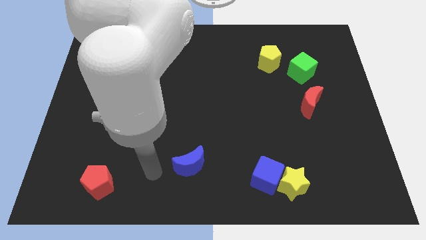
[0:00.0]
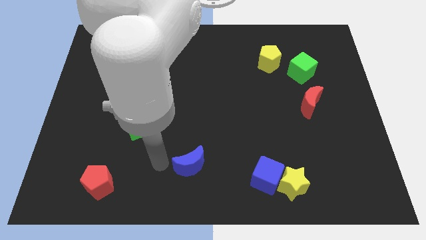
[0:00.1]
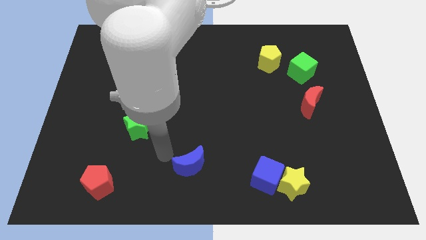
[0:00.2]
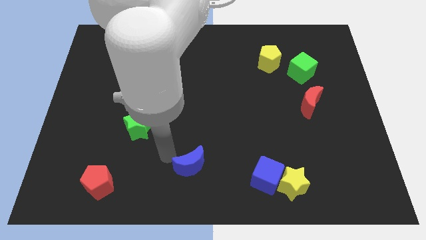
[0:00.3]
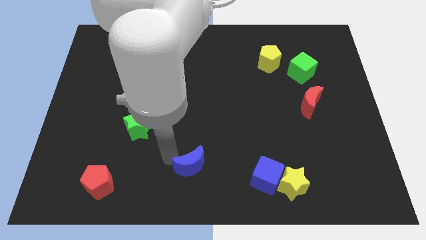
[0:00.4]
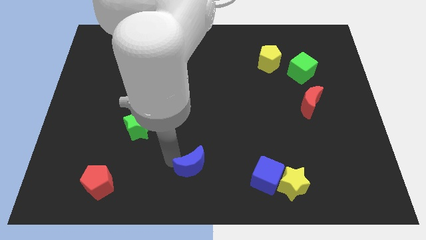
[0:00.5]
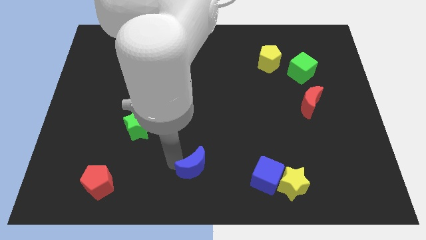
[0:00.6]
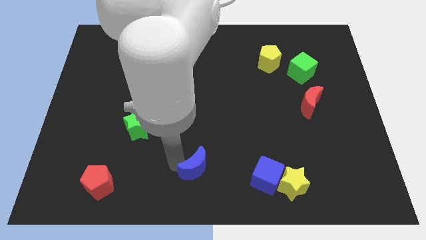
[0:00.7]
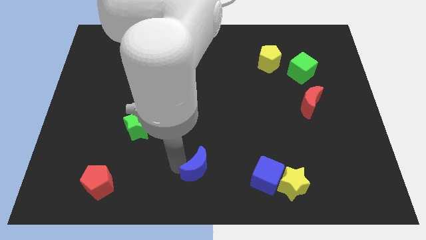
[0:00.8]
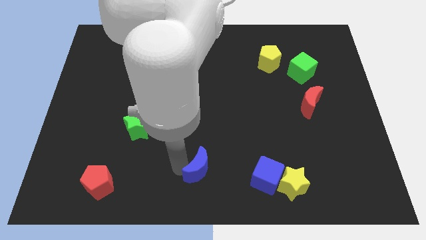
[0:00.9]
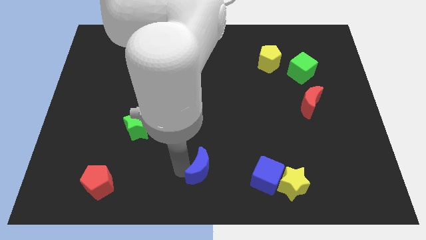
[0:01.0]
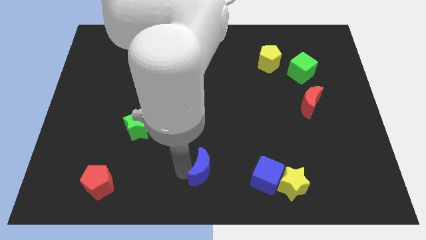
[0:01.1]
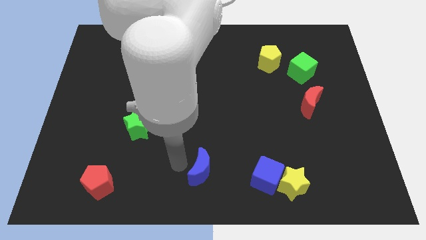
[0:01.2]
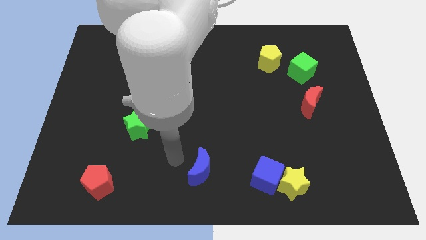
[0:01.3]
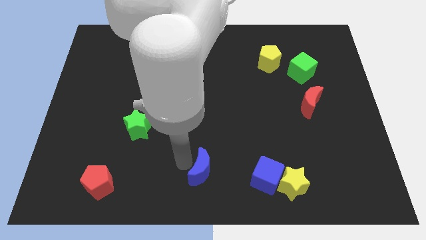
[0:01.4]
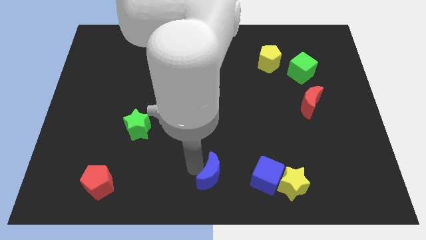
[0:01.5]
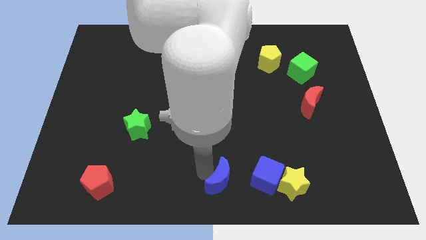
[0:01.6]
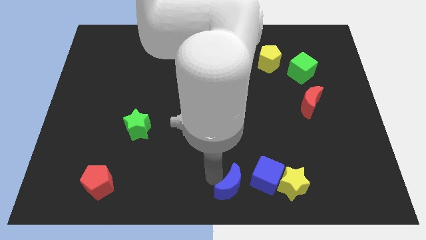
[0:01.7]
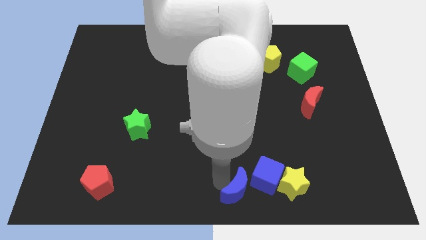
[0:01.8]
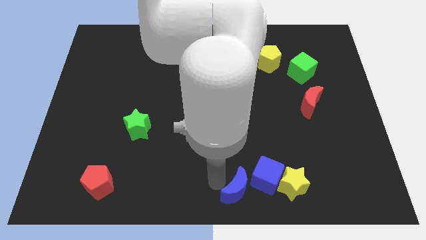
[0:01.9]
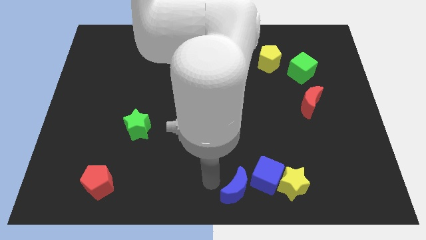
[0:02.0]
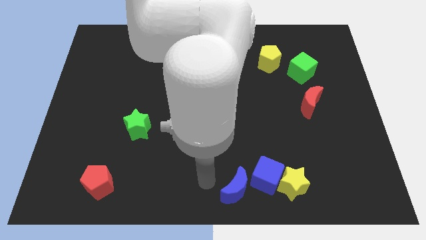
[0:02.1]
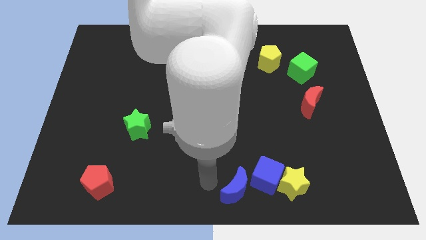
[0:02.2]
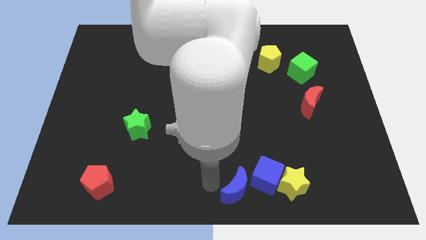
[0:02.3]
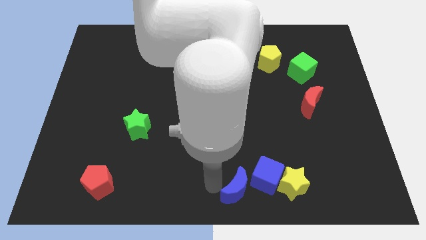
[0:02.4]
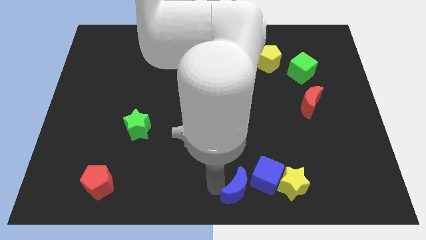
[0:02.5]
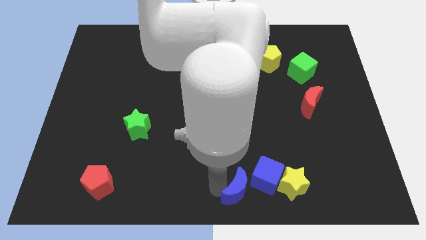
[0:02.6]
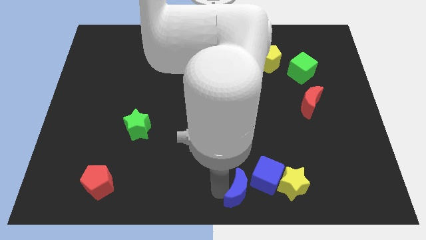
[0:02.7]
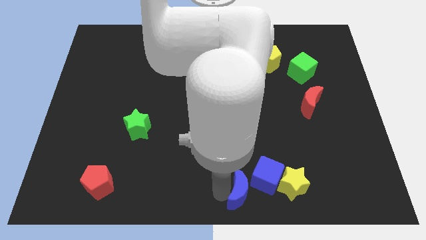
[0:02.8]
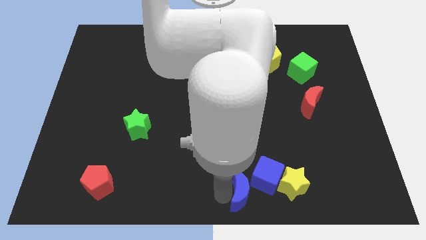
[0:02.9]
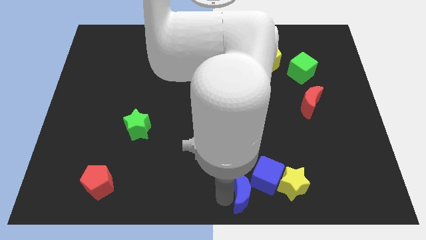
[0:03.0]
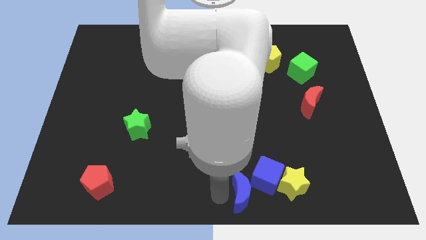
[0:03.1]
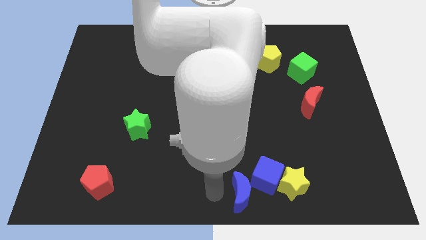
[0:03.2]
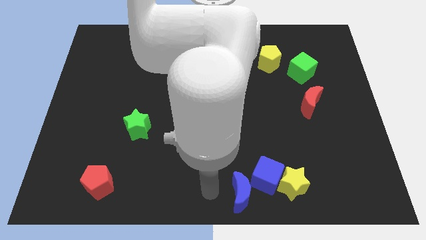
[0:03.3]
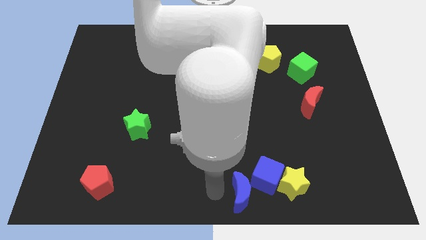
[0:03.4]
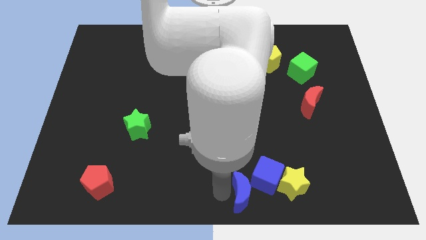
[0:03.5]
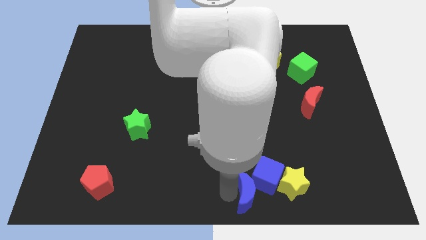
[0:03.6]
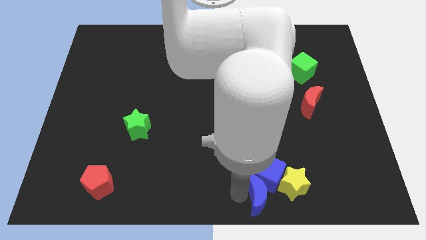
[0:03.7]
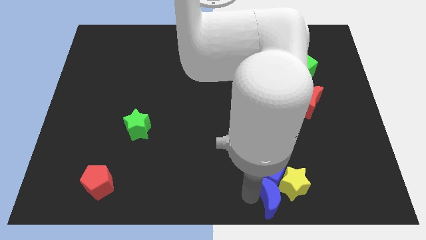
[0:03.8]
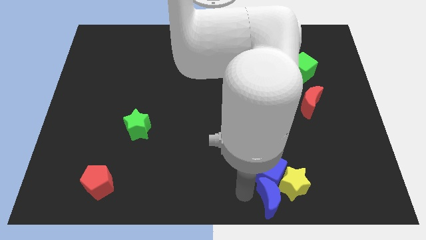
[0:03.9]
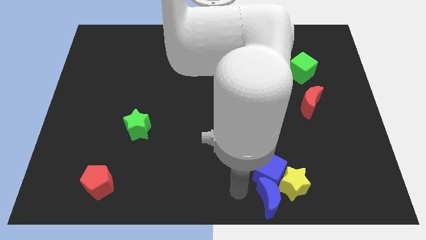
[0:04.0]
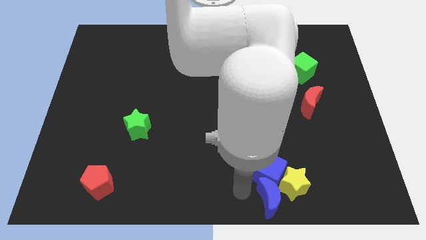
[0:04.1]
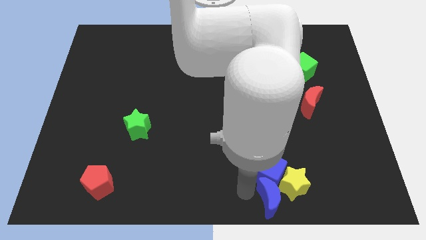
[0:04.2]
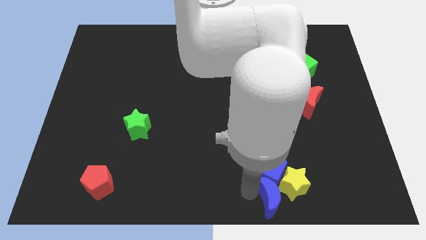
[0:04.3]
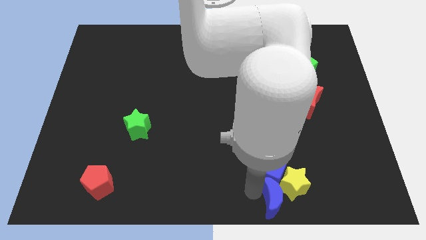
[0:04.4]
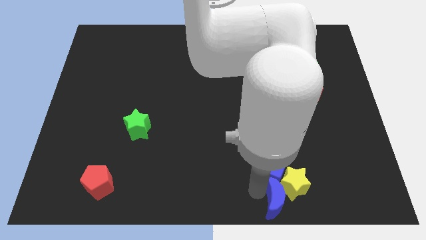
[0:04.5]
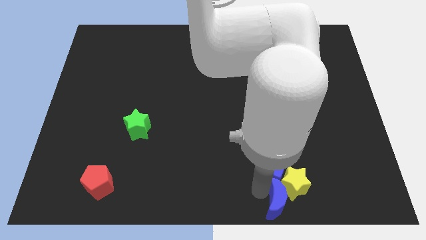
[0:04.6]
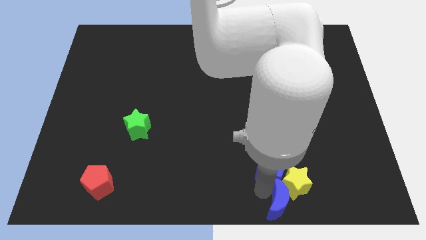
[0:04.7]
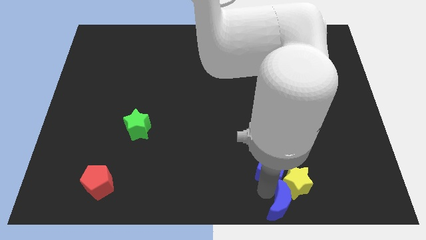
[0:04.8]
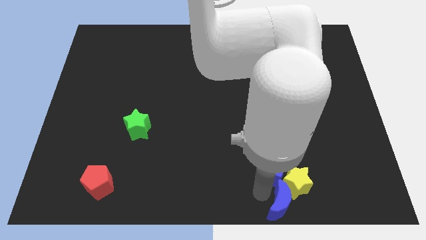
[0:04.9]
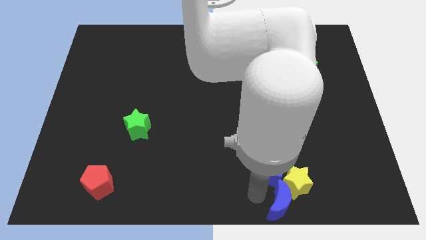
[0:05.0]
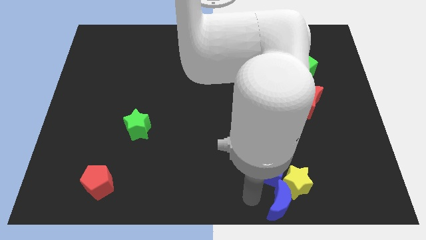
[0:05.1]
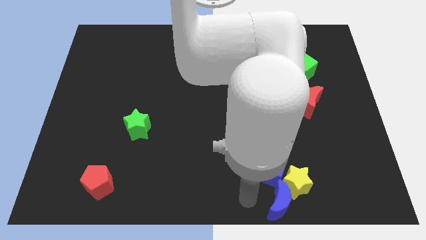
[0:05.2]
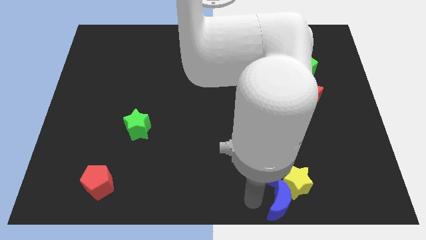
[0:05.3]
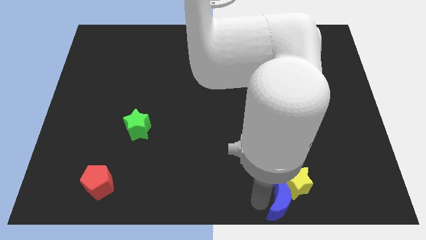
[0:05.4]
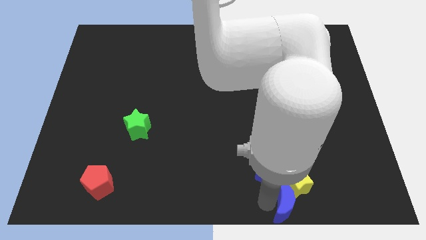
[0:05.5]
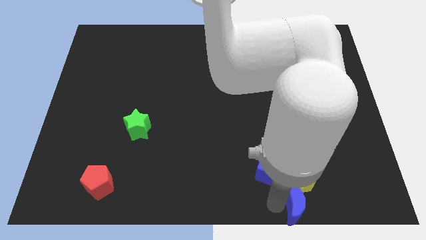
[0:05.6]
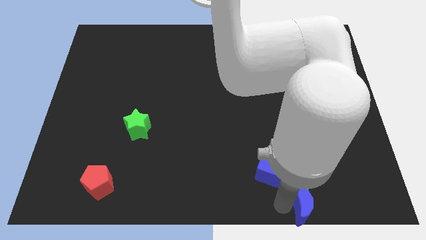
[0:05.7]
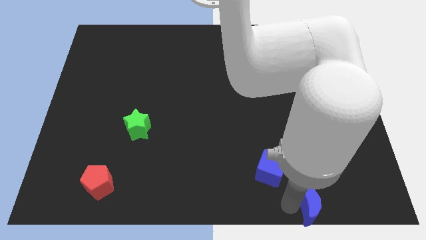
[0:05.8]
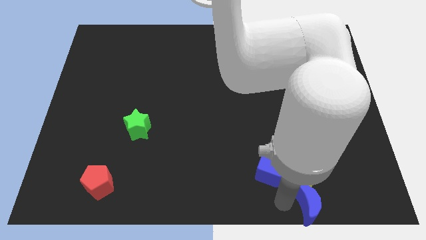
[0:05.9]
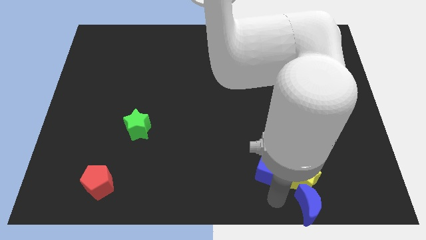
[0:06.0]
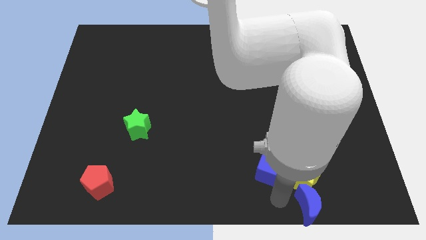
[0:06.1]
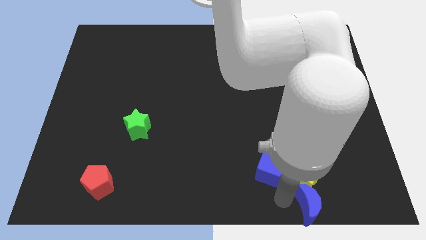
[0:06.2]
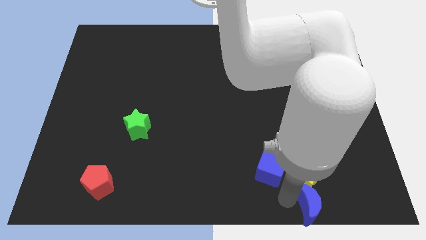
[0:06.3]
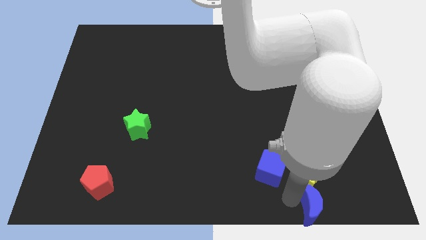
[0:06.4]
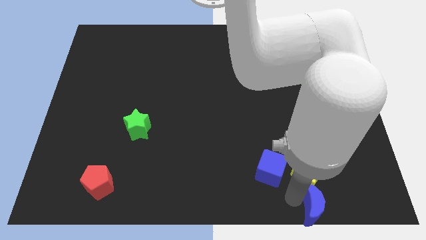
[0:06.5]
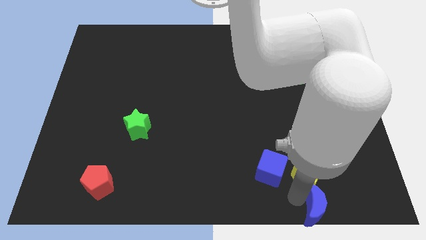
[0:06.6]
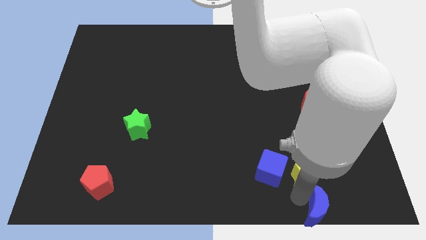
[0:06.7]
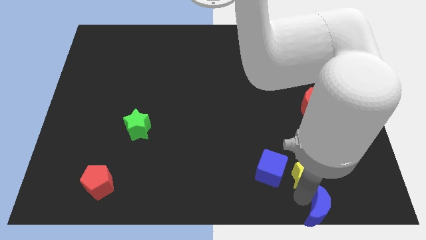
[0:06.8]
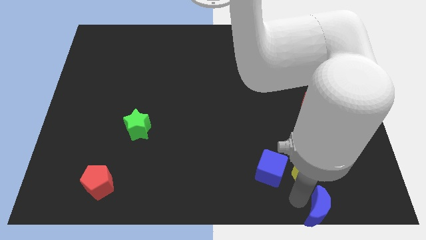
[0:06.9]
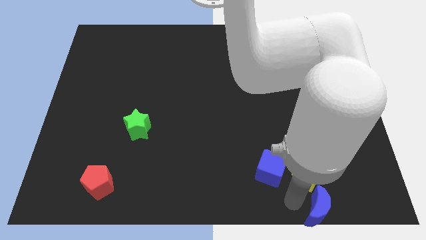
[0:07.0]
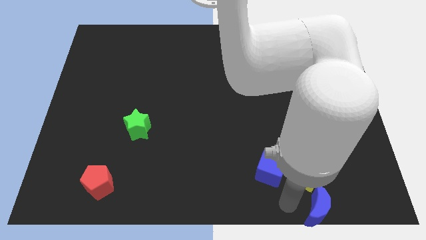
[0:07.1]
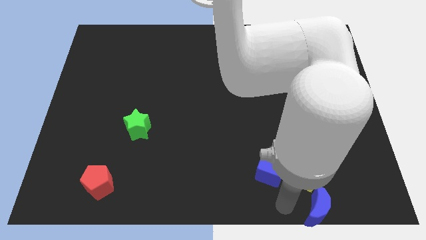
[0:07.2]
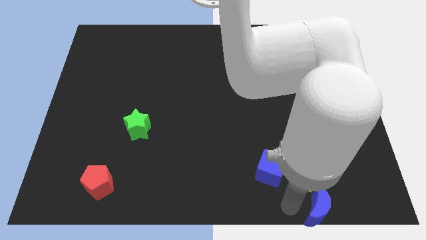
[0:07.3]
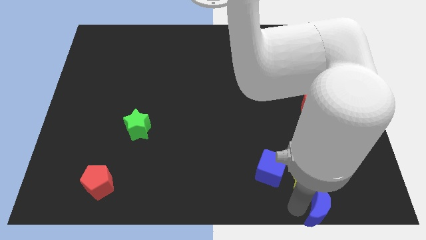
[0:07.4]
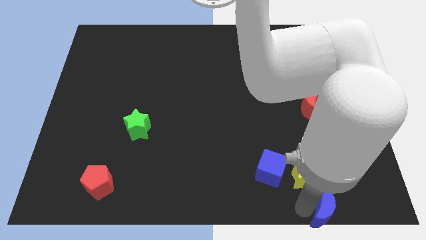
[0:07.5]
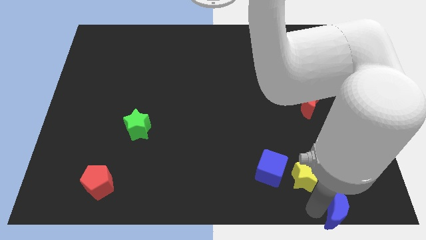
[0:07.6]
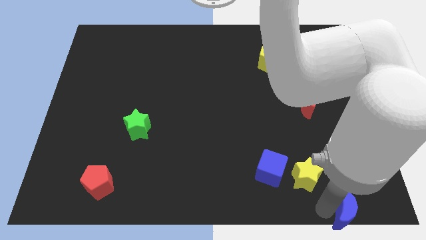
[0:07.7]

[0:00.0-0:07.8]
push the blue moon to the bottom right
